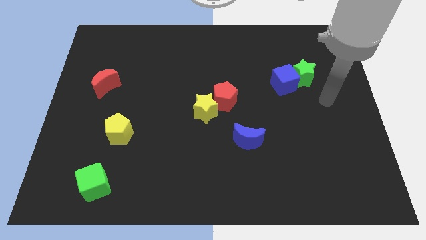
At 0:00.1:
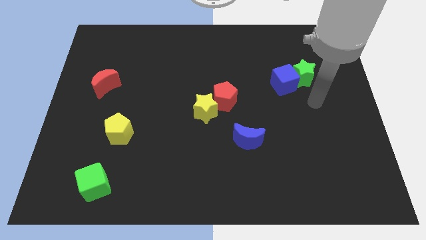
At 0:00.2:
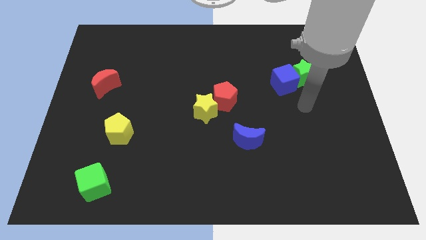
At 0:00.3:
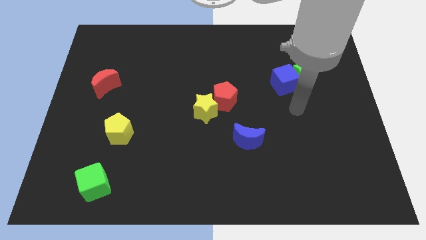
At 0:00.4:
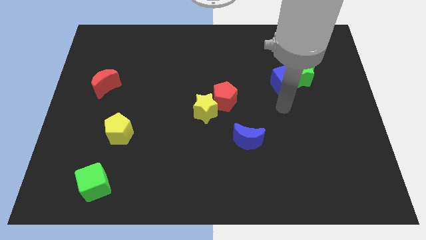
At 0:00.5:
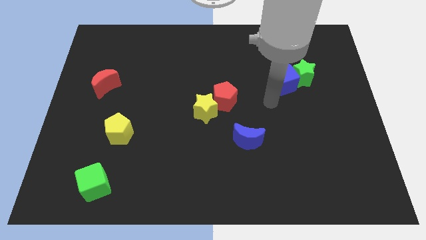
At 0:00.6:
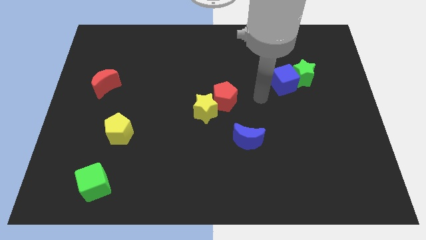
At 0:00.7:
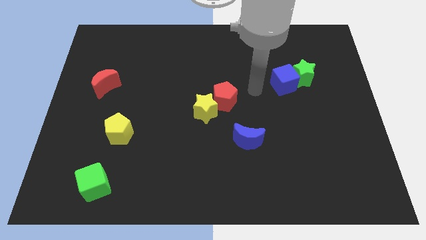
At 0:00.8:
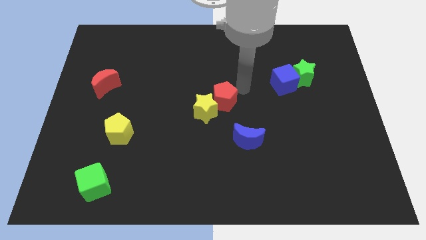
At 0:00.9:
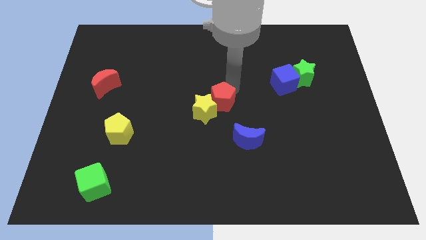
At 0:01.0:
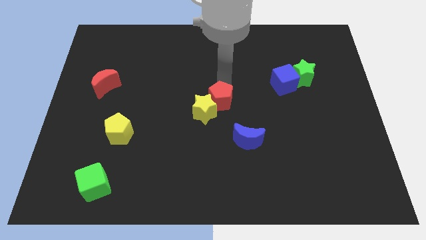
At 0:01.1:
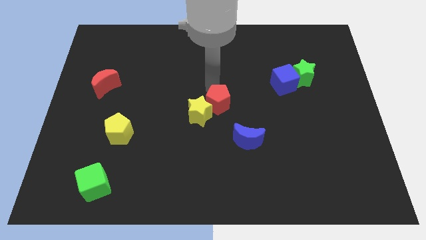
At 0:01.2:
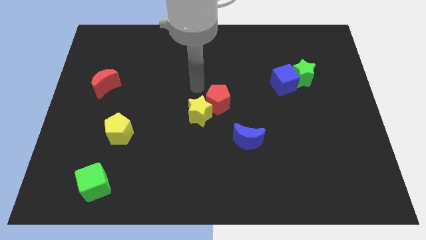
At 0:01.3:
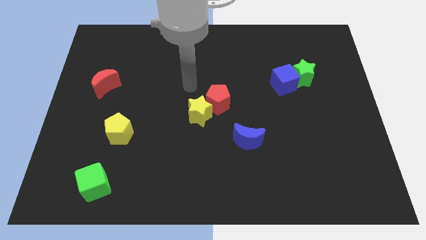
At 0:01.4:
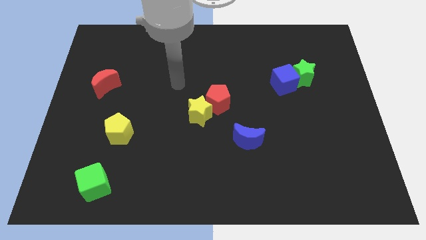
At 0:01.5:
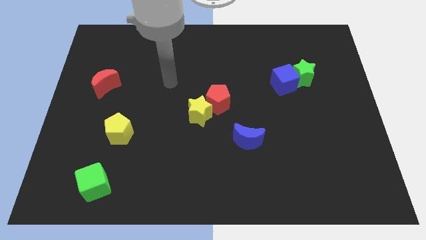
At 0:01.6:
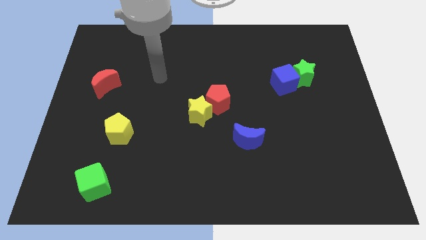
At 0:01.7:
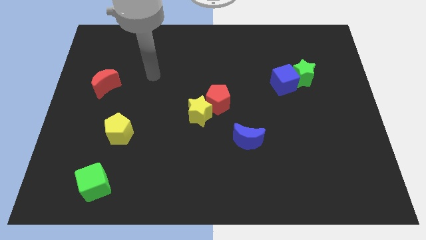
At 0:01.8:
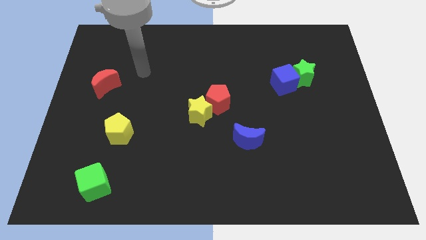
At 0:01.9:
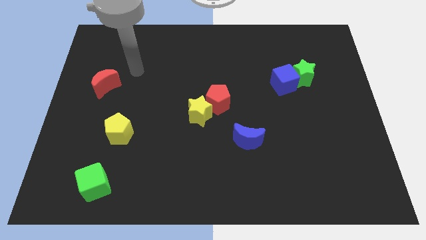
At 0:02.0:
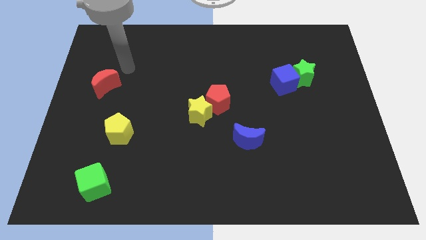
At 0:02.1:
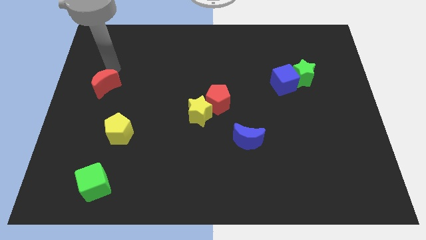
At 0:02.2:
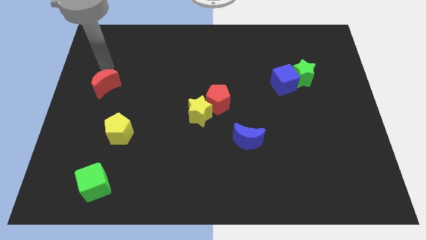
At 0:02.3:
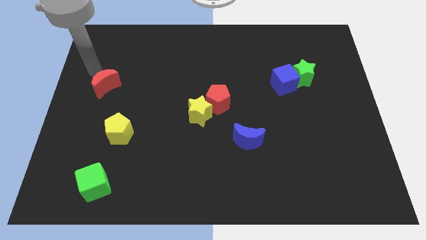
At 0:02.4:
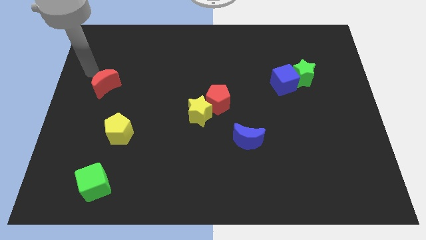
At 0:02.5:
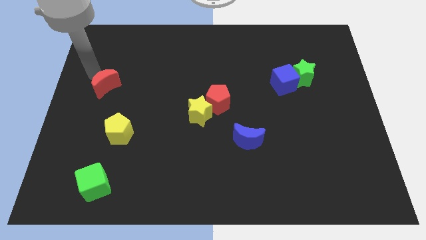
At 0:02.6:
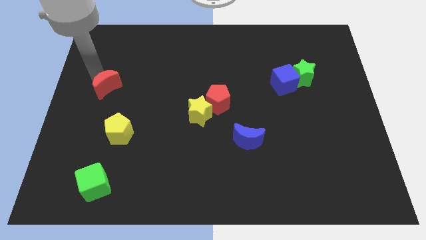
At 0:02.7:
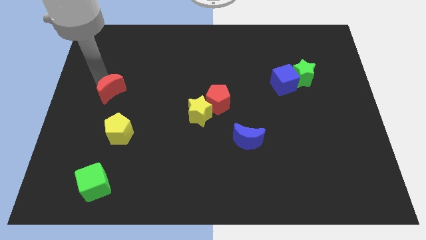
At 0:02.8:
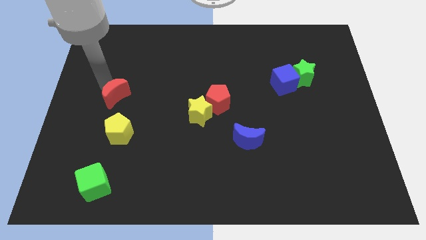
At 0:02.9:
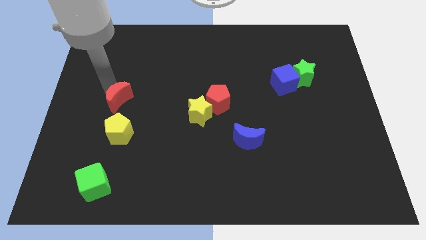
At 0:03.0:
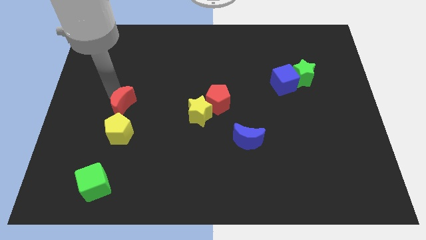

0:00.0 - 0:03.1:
push the red moon a little downwards and right

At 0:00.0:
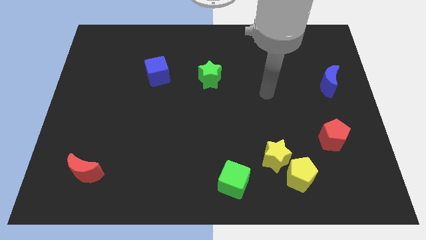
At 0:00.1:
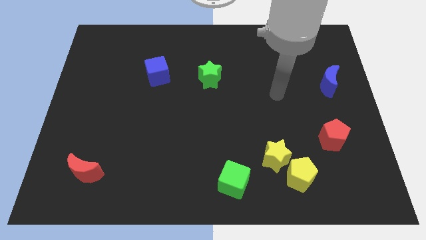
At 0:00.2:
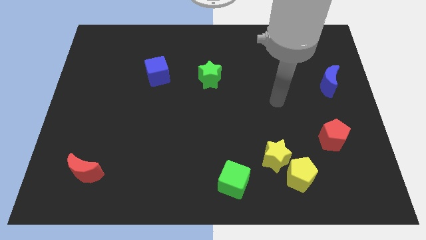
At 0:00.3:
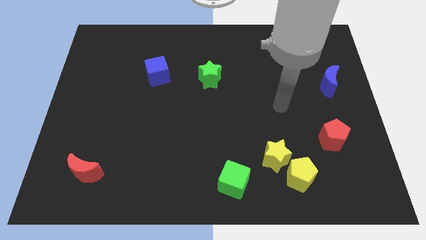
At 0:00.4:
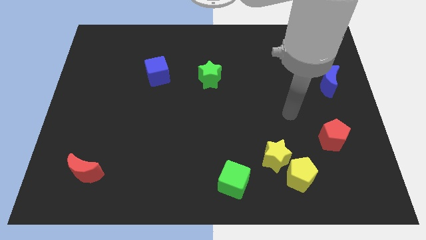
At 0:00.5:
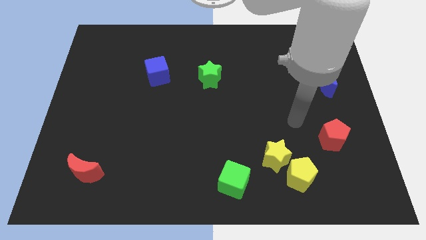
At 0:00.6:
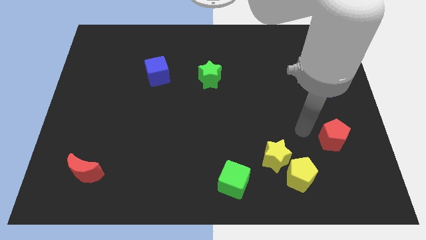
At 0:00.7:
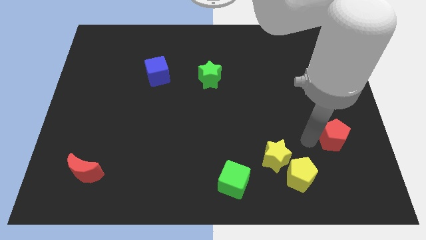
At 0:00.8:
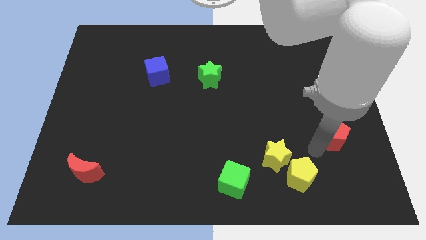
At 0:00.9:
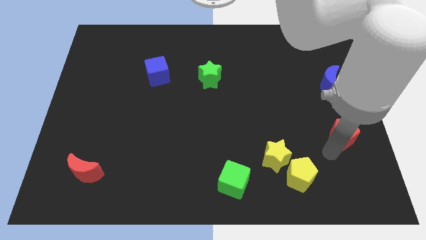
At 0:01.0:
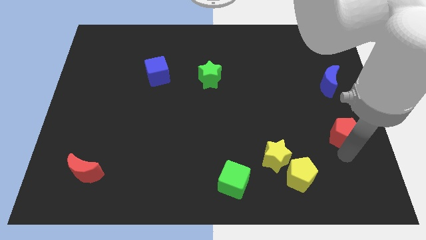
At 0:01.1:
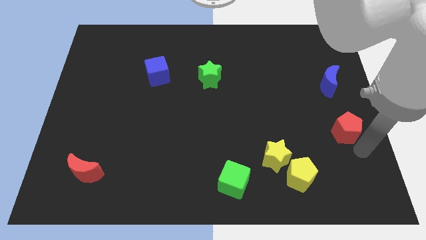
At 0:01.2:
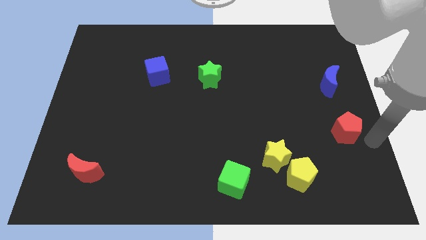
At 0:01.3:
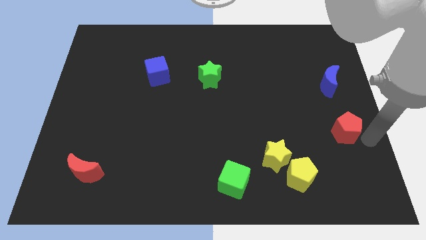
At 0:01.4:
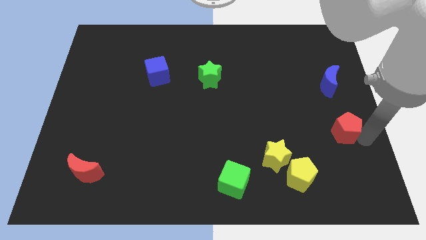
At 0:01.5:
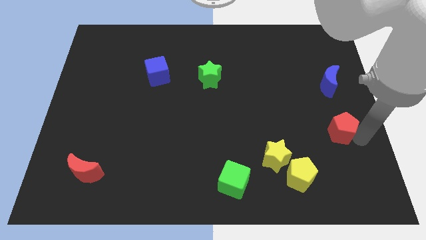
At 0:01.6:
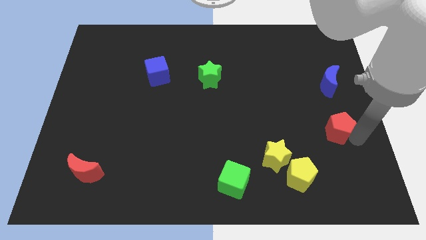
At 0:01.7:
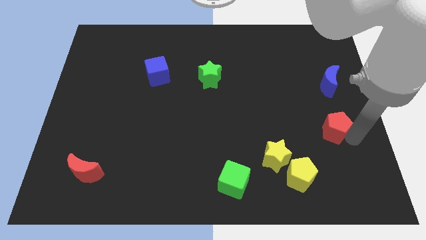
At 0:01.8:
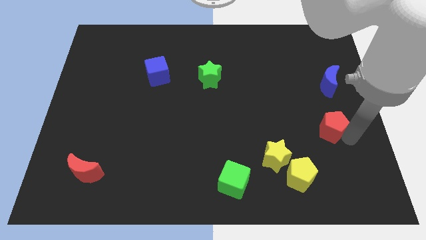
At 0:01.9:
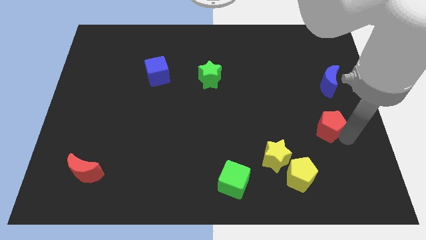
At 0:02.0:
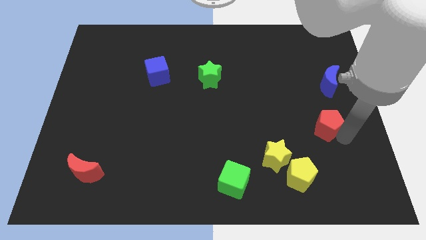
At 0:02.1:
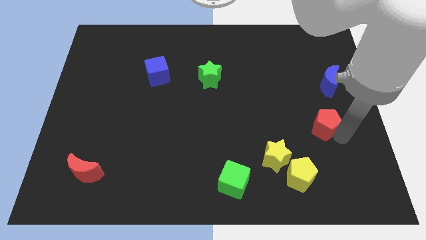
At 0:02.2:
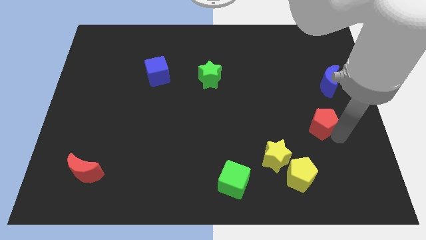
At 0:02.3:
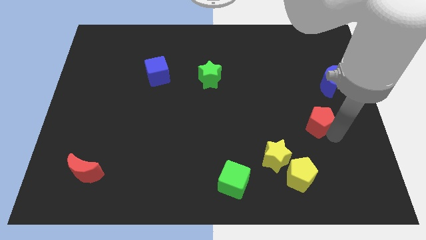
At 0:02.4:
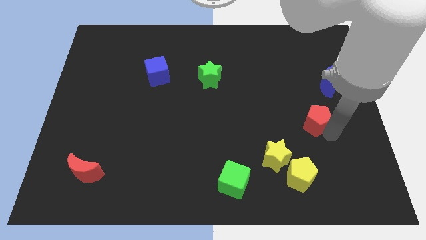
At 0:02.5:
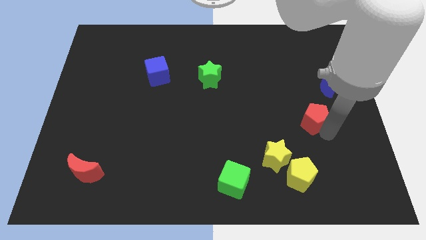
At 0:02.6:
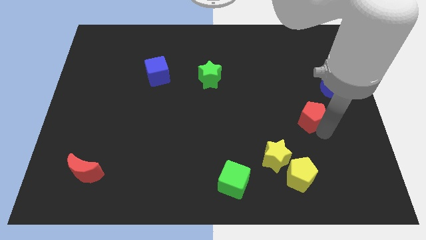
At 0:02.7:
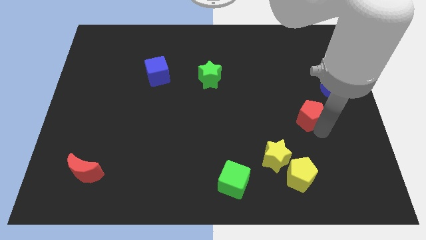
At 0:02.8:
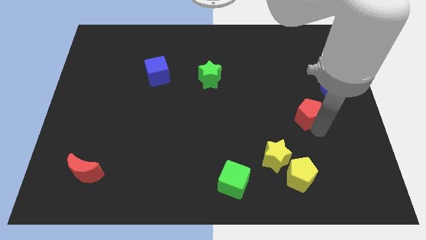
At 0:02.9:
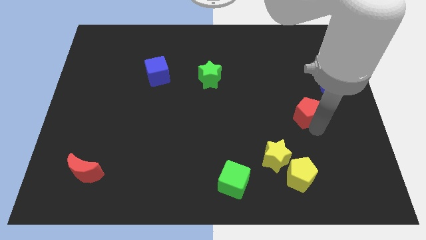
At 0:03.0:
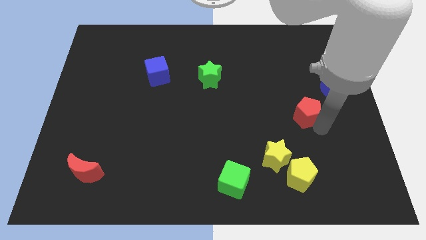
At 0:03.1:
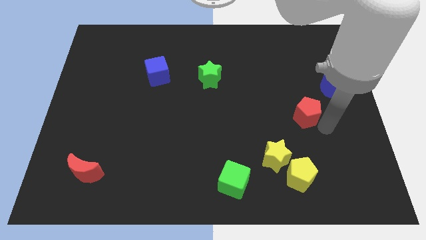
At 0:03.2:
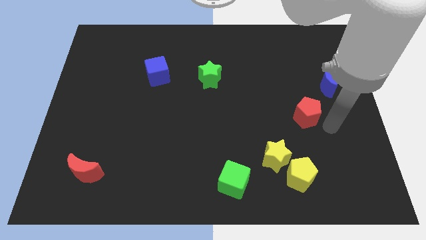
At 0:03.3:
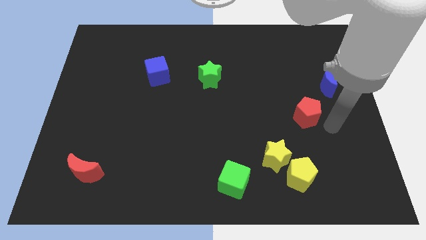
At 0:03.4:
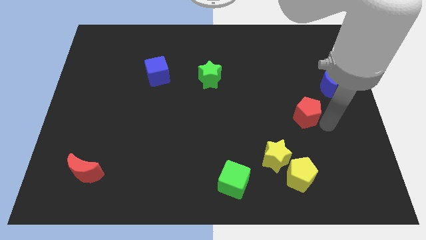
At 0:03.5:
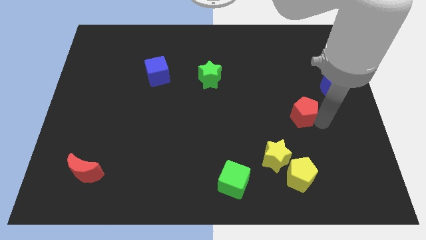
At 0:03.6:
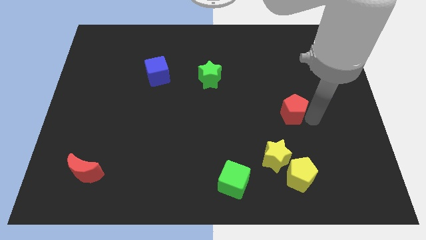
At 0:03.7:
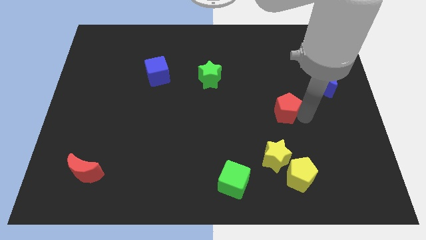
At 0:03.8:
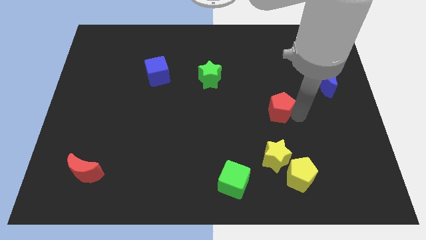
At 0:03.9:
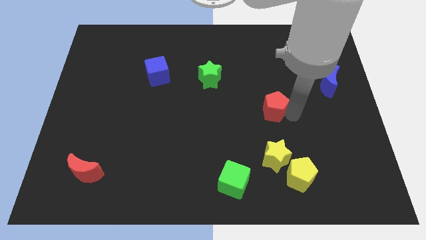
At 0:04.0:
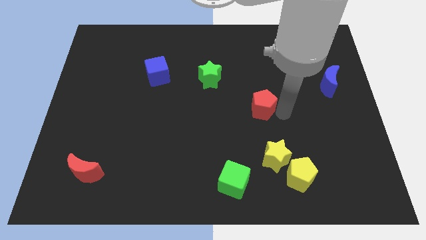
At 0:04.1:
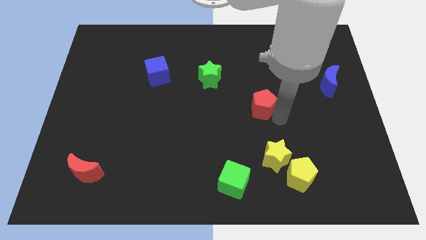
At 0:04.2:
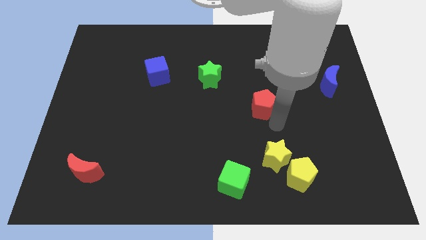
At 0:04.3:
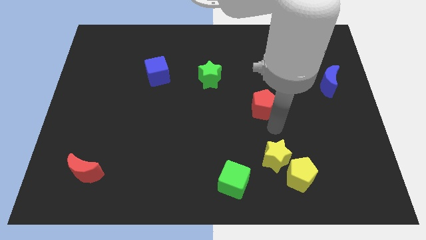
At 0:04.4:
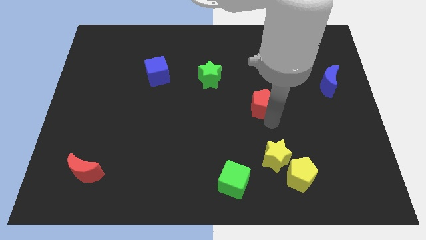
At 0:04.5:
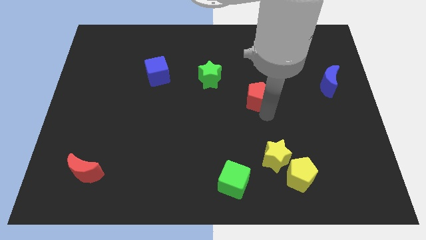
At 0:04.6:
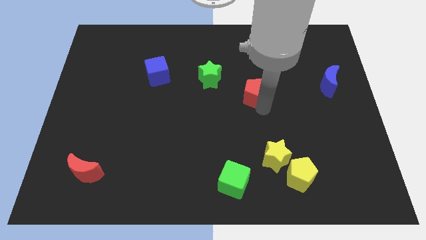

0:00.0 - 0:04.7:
push the red pentagon up and then left
